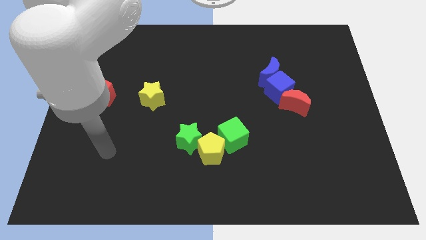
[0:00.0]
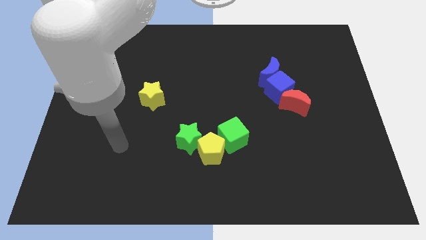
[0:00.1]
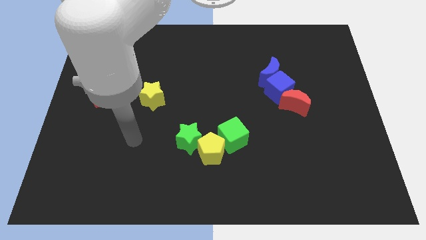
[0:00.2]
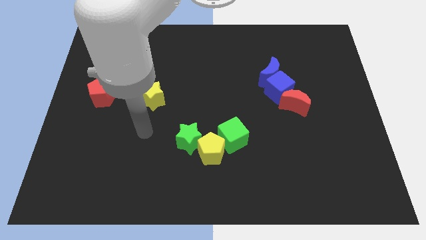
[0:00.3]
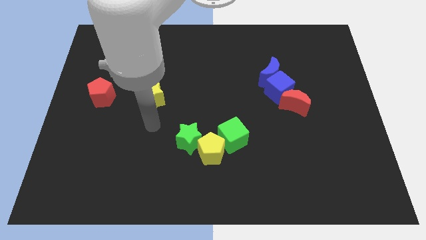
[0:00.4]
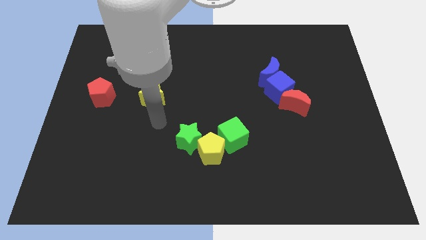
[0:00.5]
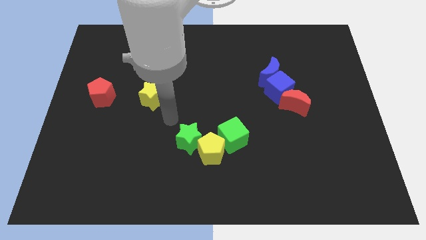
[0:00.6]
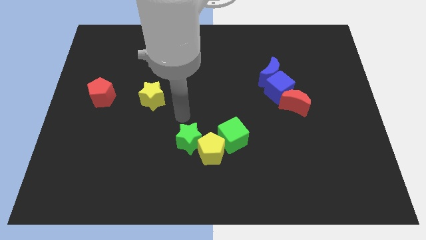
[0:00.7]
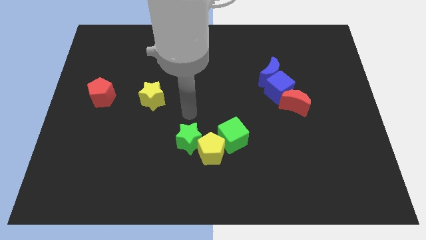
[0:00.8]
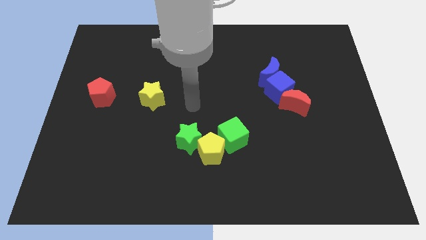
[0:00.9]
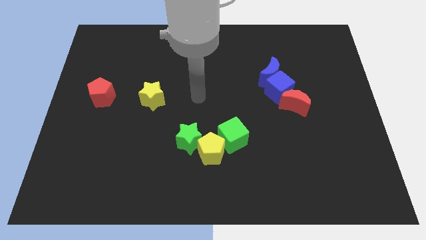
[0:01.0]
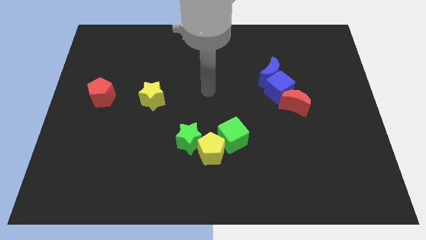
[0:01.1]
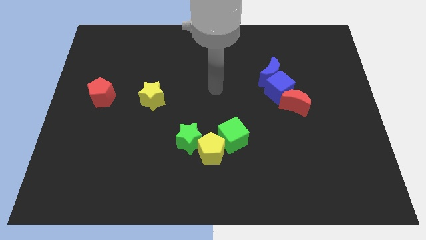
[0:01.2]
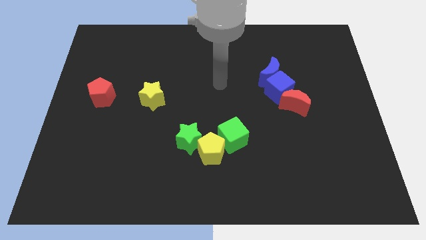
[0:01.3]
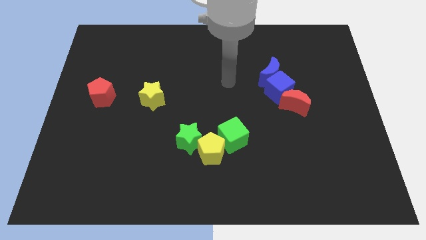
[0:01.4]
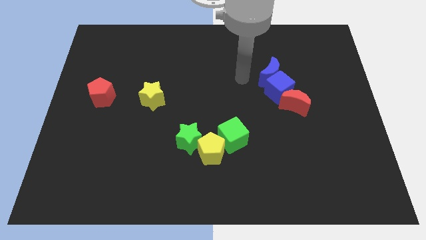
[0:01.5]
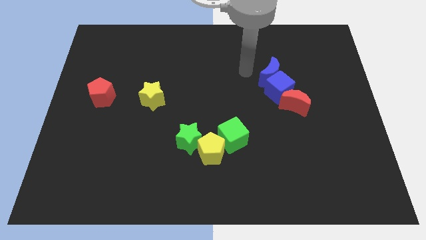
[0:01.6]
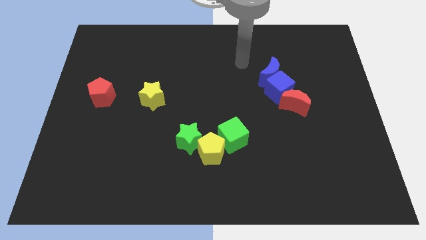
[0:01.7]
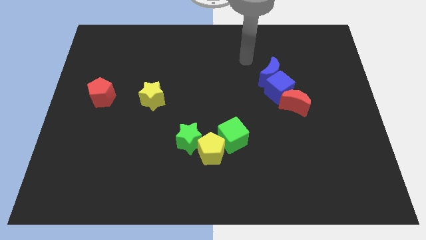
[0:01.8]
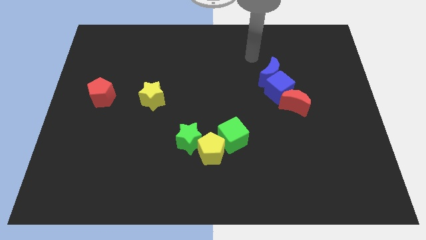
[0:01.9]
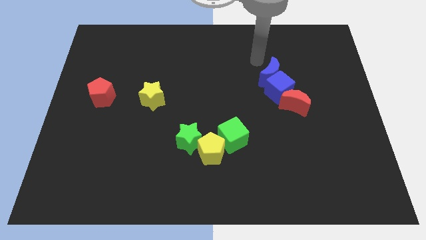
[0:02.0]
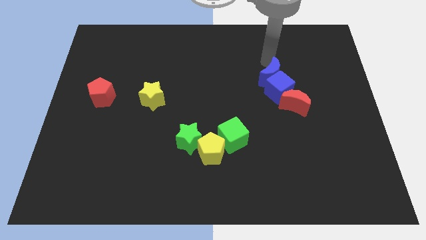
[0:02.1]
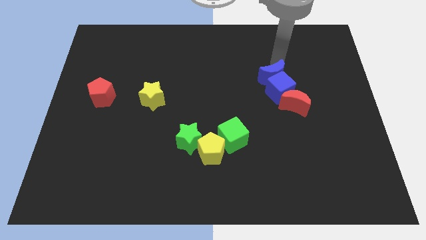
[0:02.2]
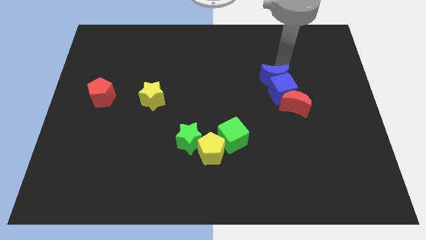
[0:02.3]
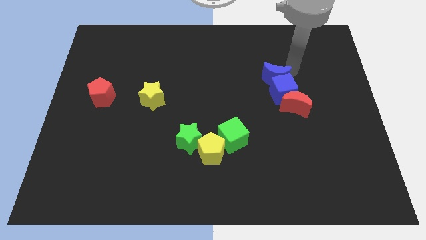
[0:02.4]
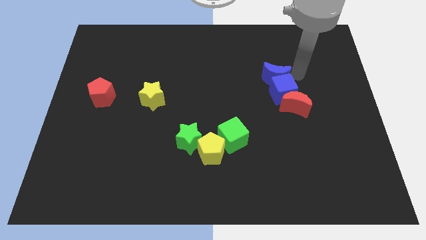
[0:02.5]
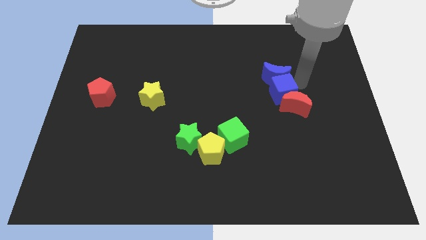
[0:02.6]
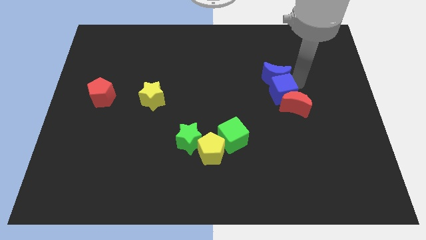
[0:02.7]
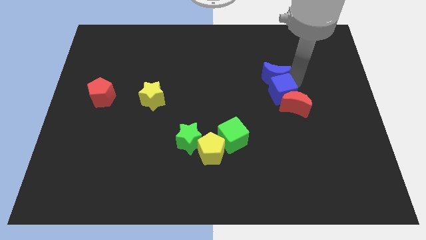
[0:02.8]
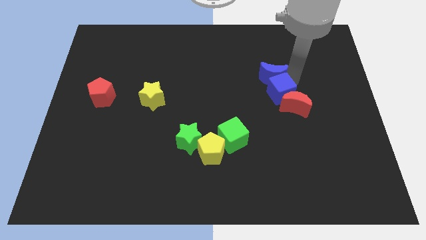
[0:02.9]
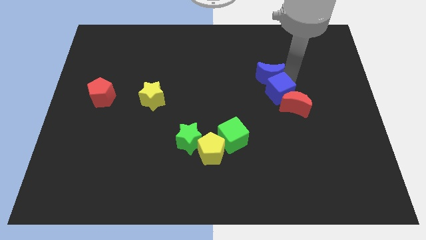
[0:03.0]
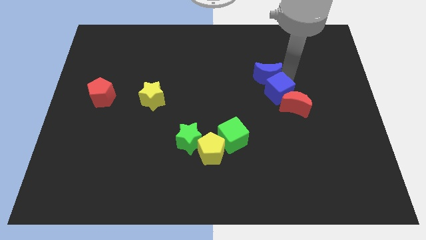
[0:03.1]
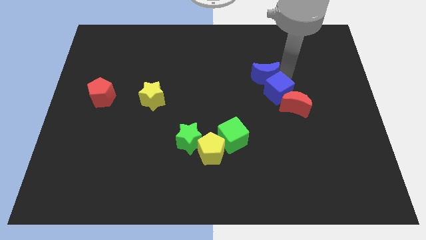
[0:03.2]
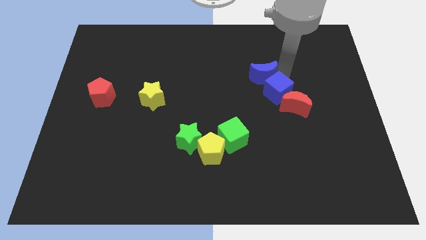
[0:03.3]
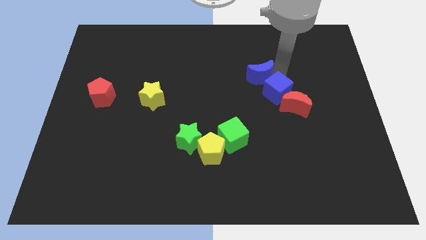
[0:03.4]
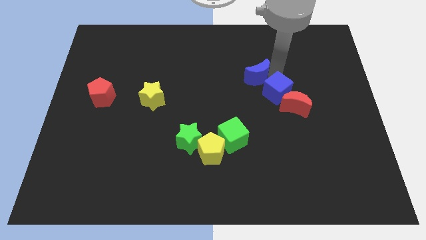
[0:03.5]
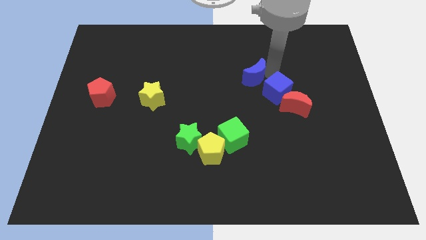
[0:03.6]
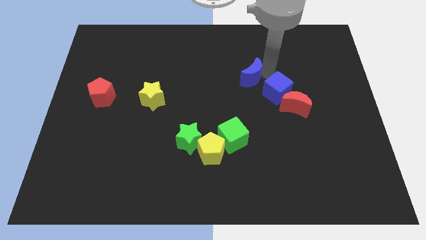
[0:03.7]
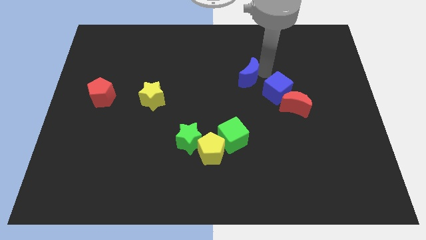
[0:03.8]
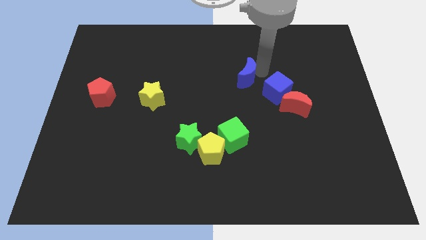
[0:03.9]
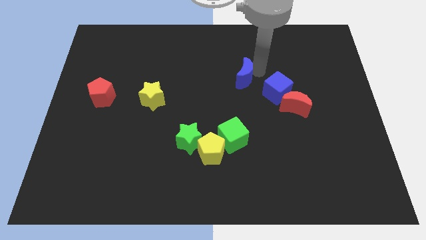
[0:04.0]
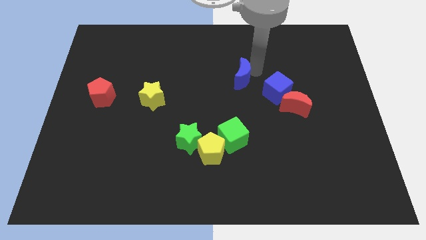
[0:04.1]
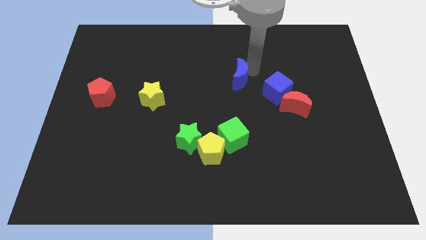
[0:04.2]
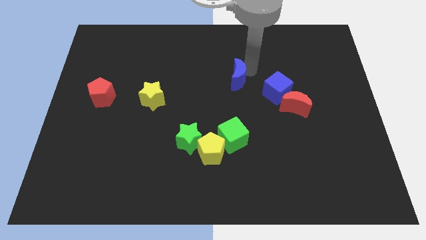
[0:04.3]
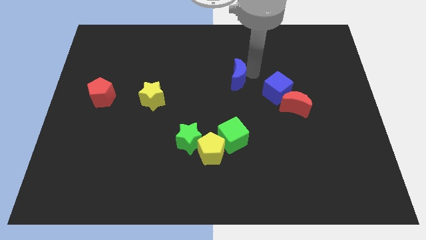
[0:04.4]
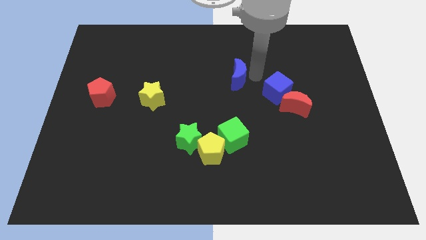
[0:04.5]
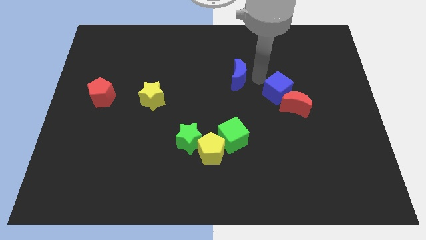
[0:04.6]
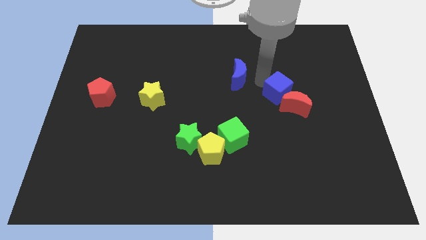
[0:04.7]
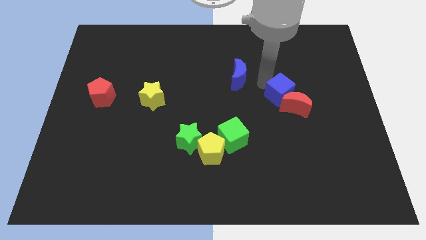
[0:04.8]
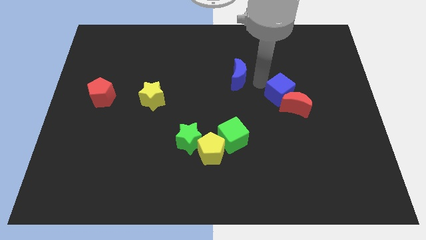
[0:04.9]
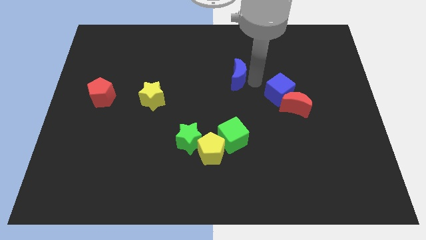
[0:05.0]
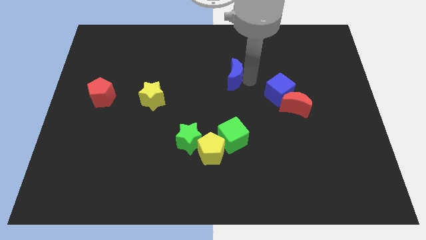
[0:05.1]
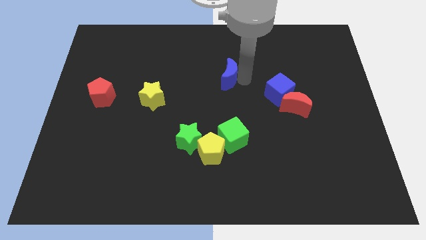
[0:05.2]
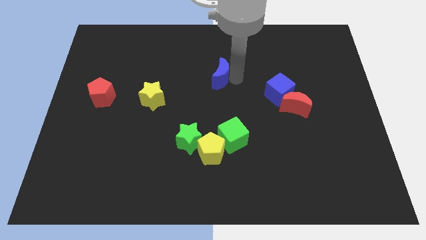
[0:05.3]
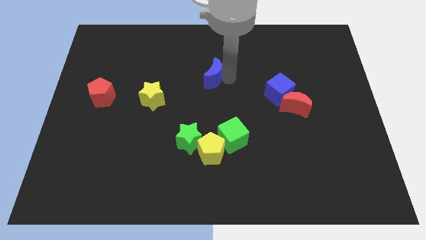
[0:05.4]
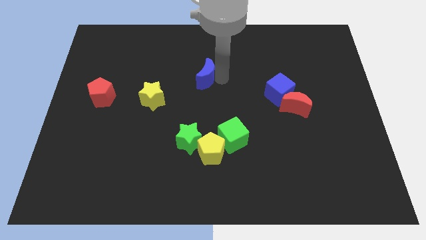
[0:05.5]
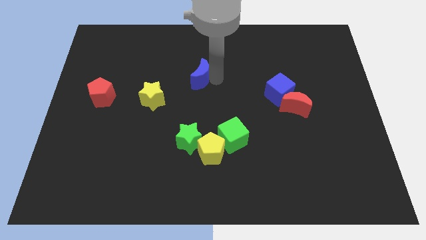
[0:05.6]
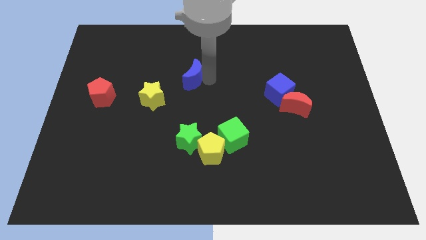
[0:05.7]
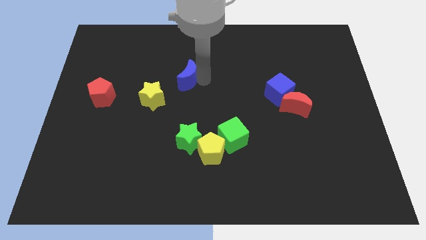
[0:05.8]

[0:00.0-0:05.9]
move the blue moon left

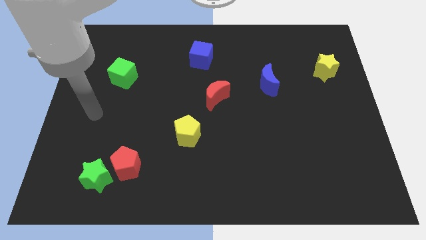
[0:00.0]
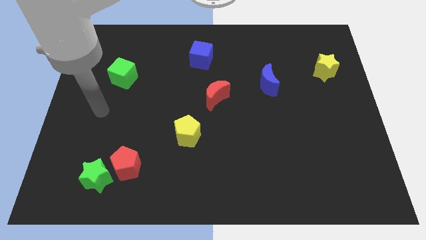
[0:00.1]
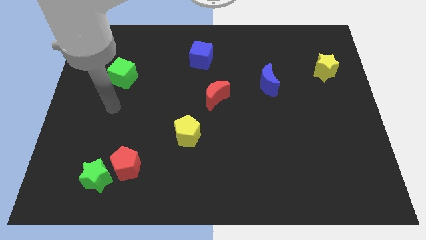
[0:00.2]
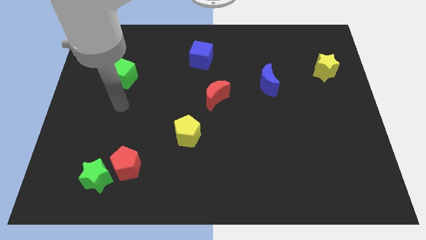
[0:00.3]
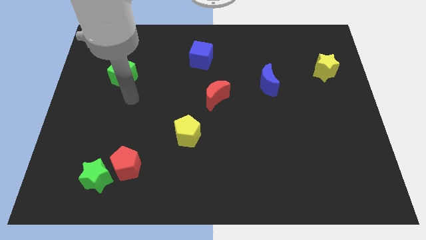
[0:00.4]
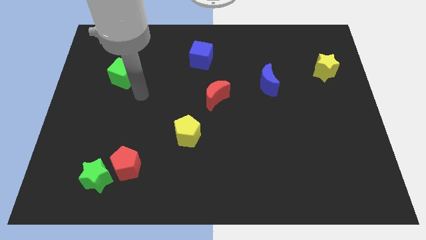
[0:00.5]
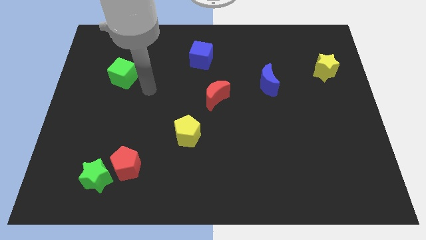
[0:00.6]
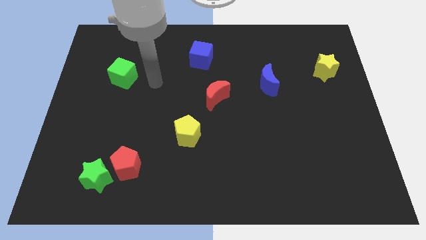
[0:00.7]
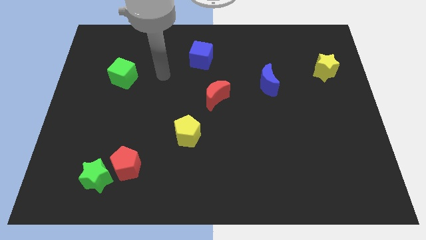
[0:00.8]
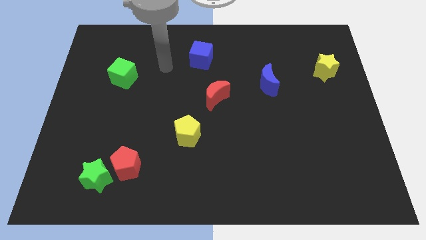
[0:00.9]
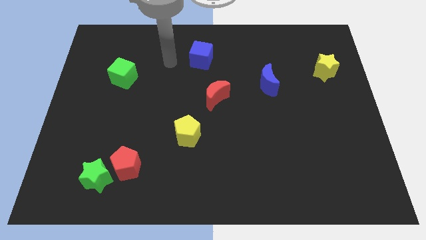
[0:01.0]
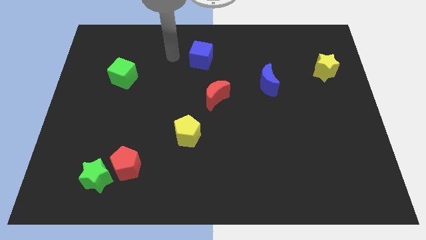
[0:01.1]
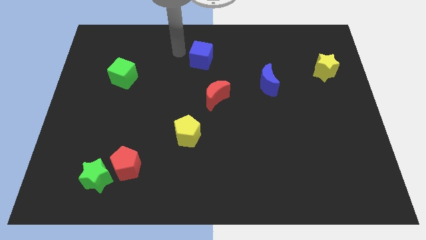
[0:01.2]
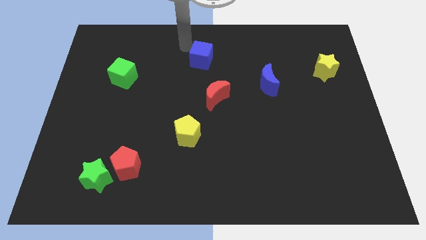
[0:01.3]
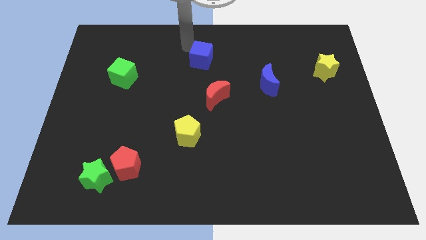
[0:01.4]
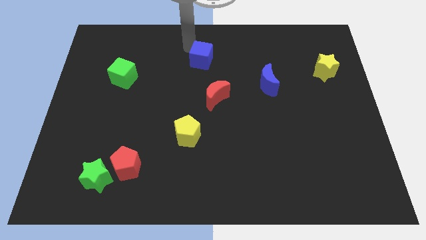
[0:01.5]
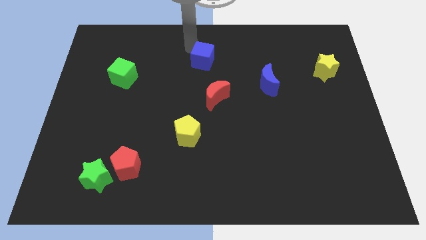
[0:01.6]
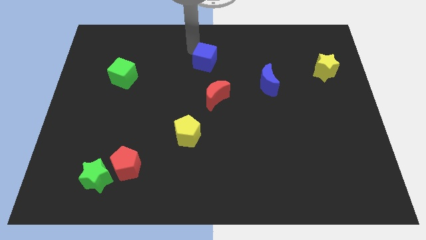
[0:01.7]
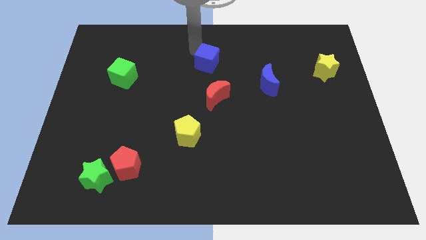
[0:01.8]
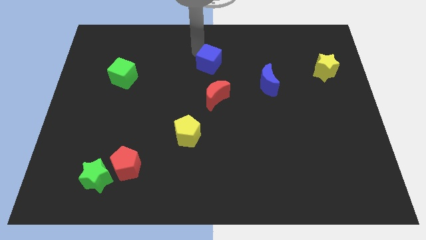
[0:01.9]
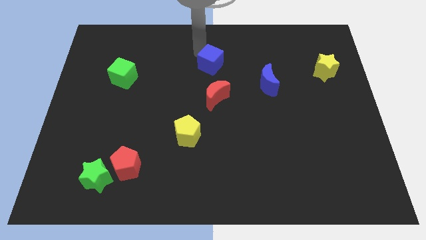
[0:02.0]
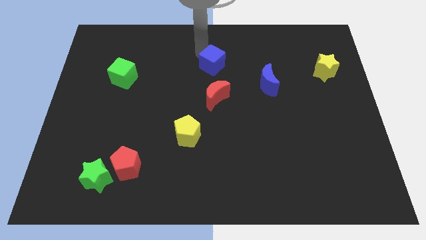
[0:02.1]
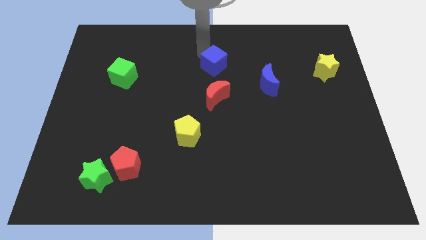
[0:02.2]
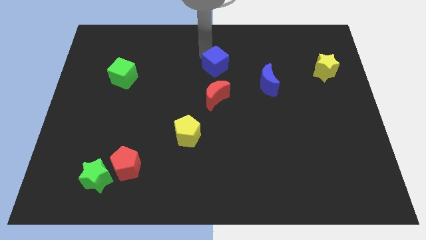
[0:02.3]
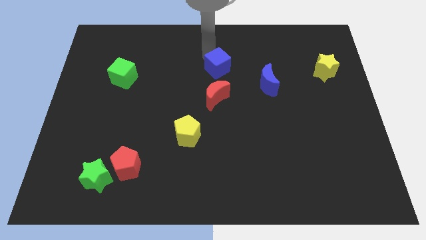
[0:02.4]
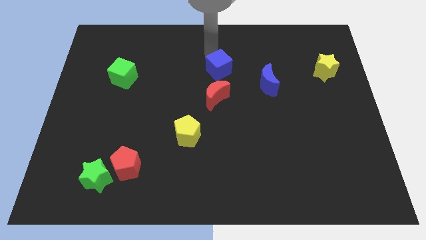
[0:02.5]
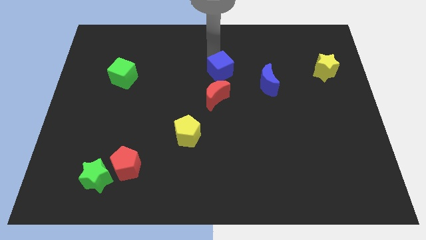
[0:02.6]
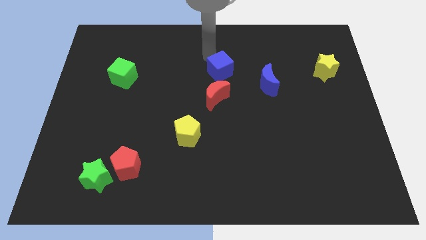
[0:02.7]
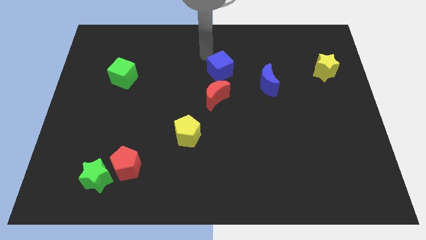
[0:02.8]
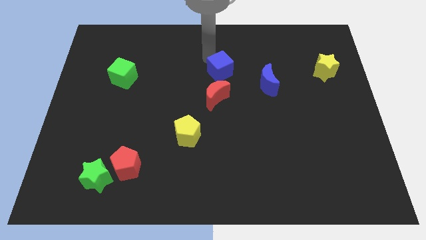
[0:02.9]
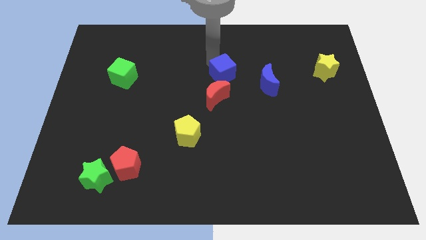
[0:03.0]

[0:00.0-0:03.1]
push the blue cube somewhat diagonally down and right
